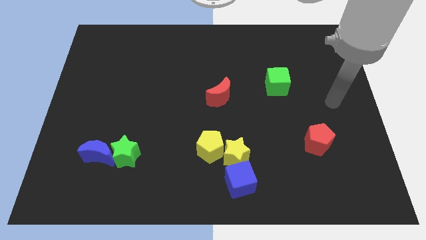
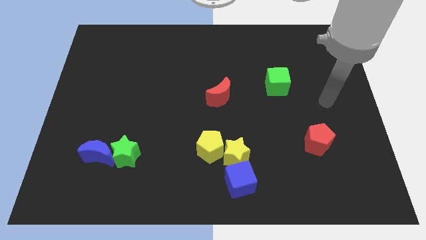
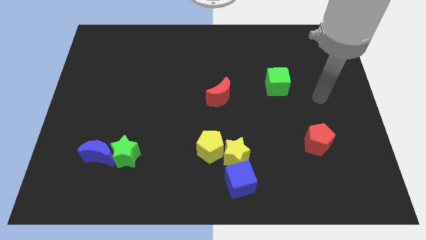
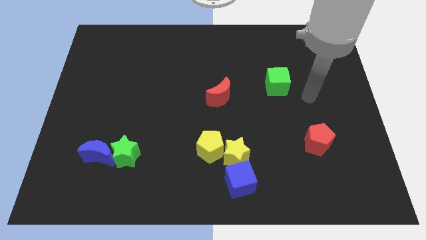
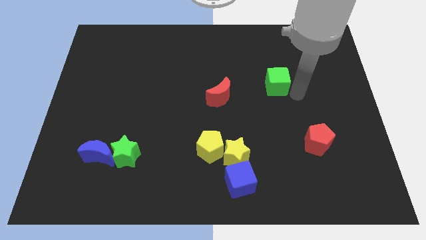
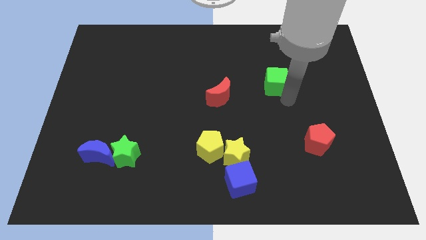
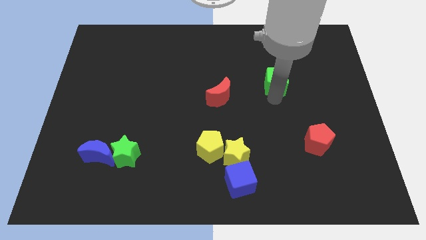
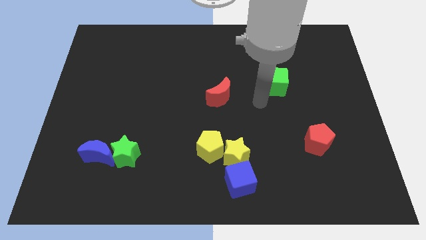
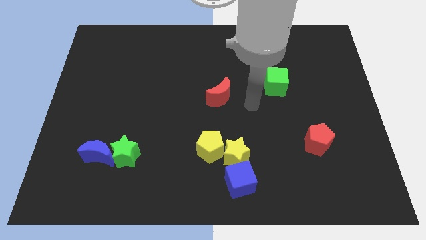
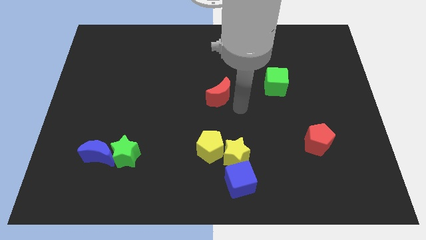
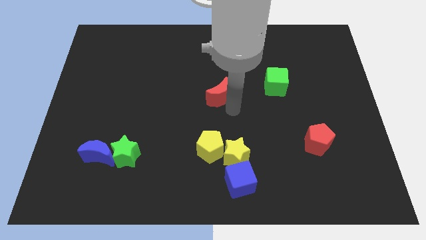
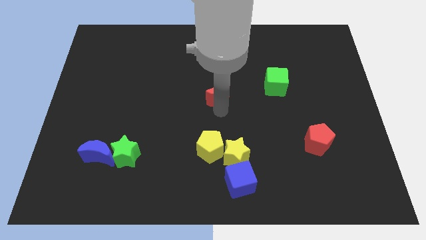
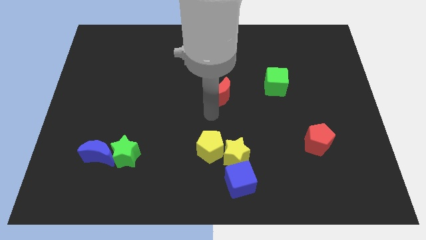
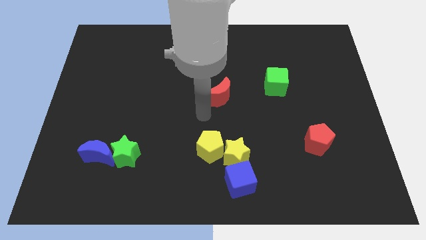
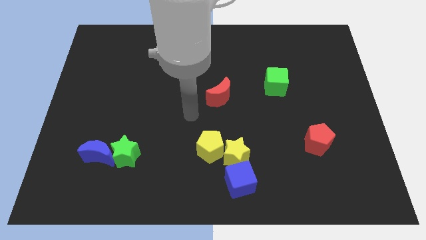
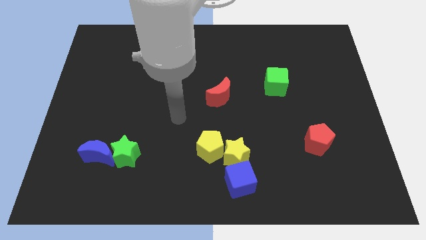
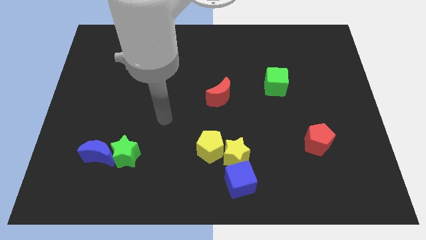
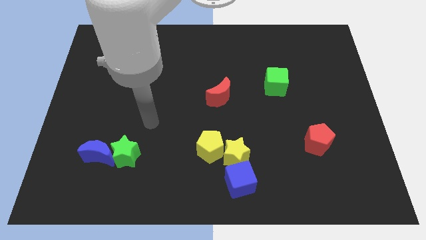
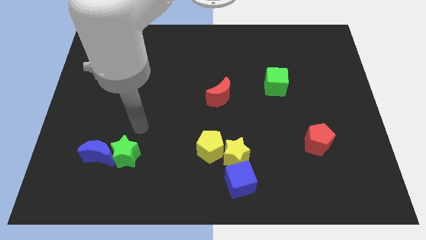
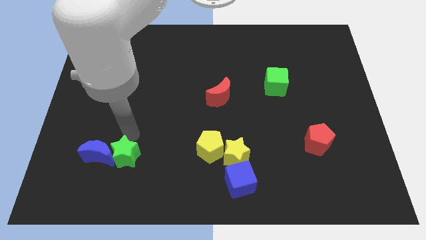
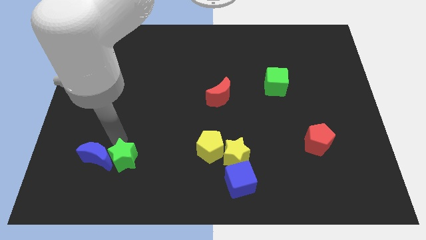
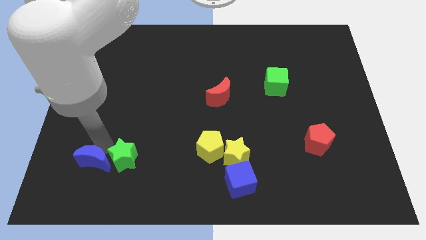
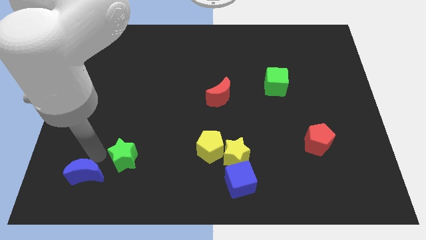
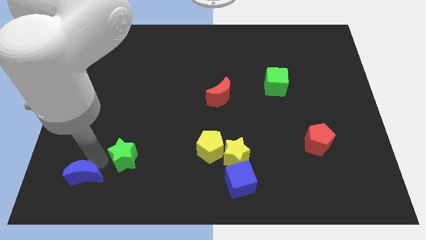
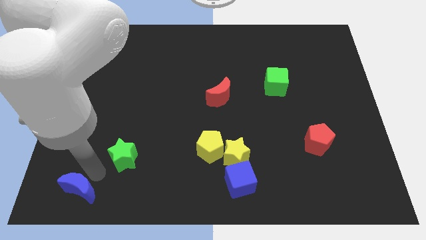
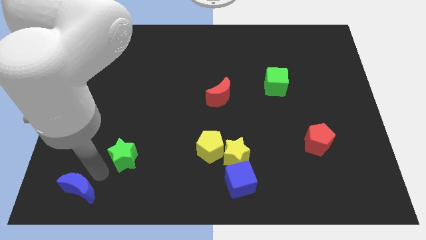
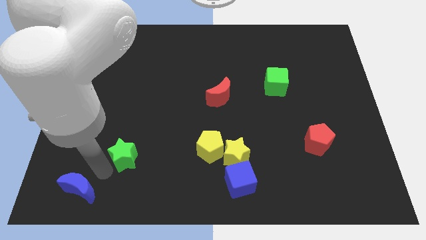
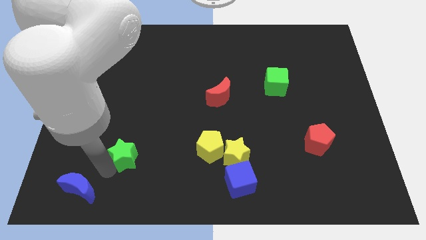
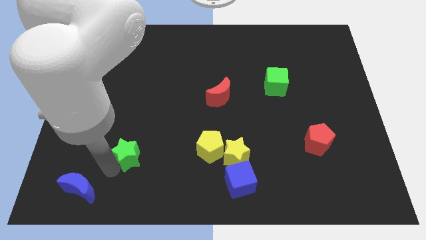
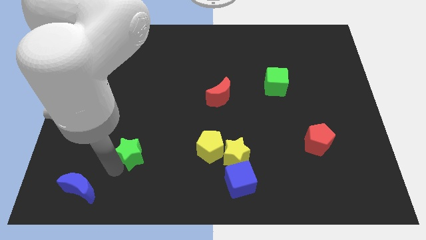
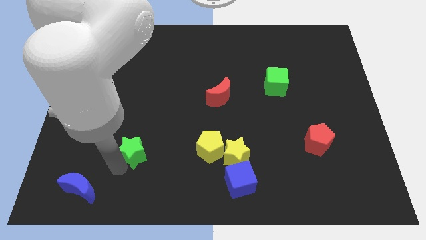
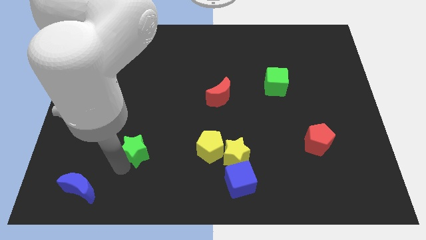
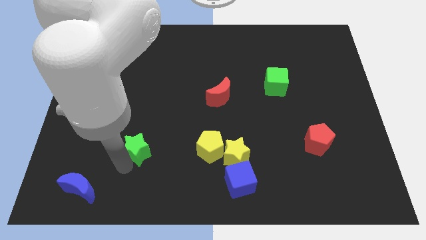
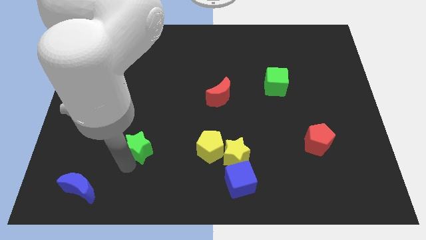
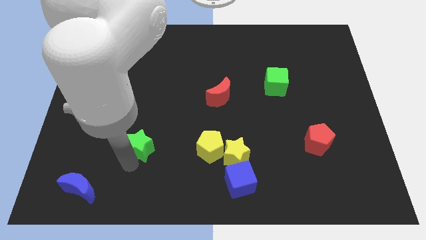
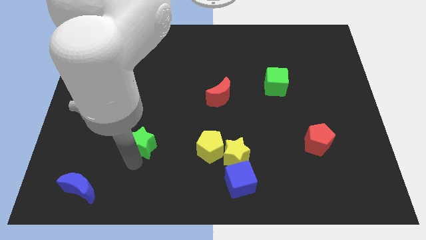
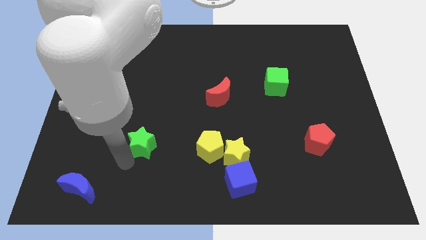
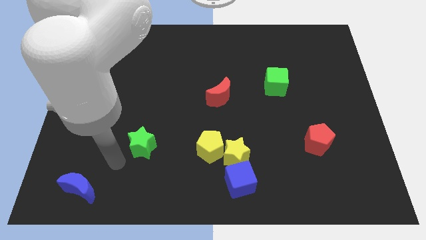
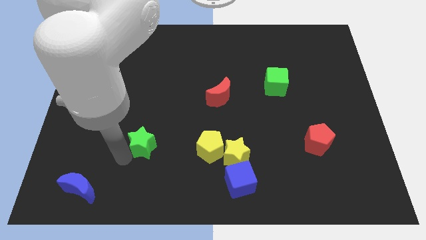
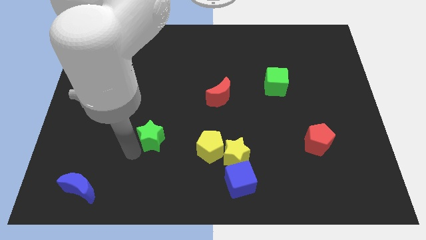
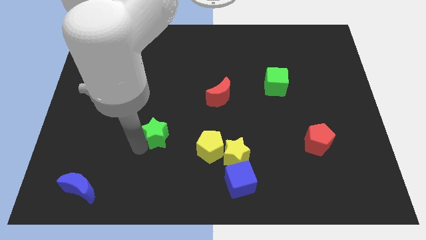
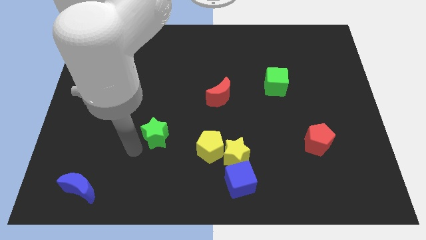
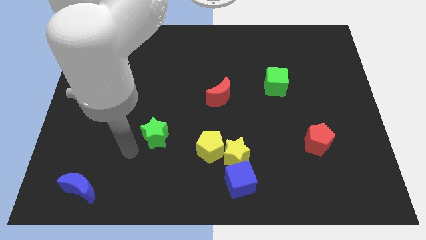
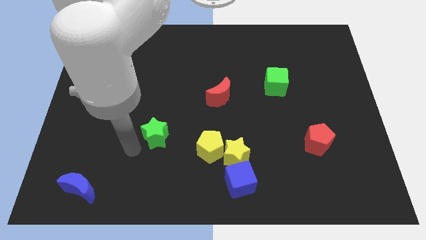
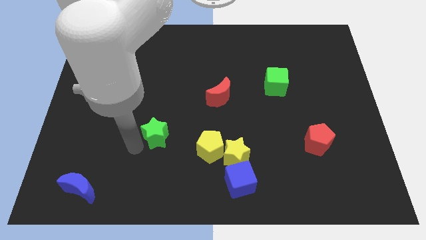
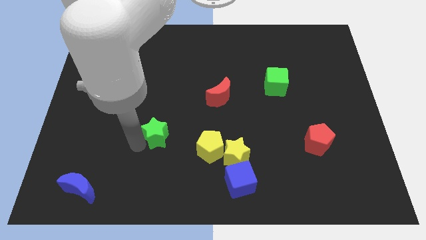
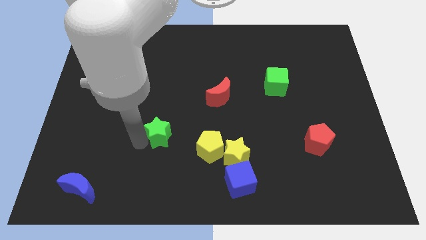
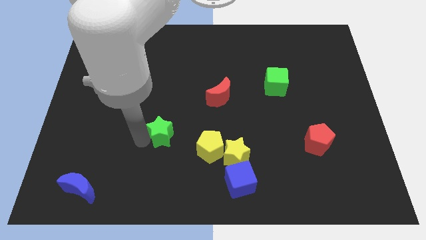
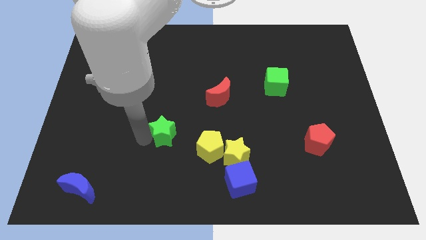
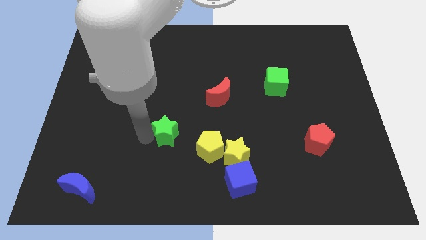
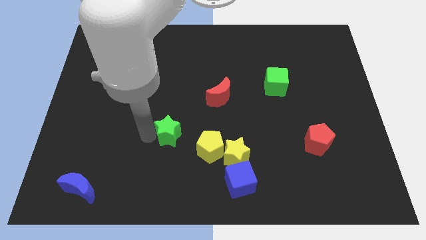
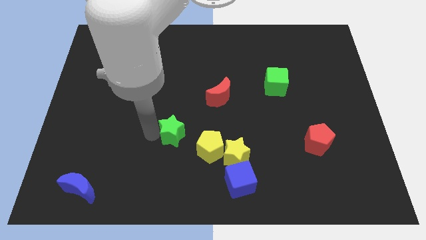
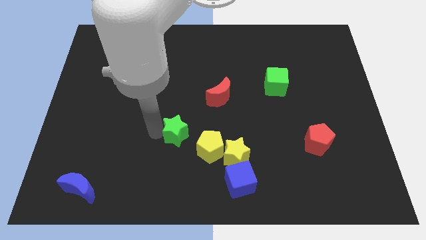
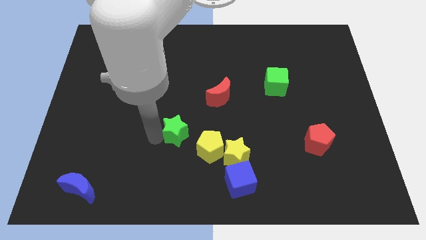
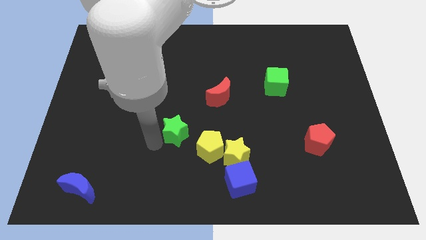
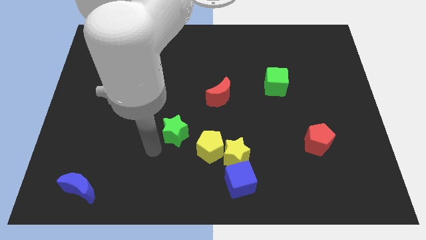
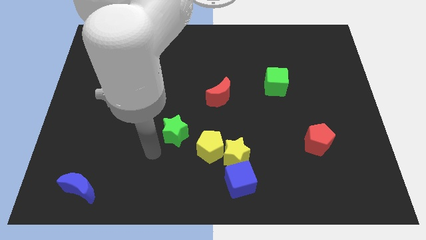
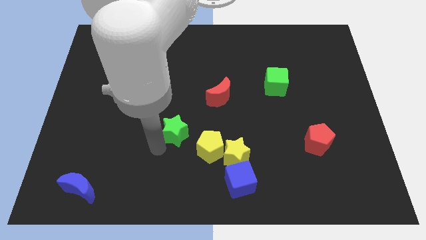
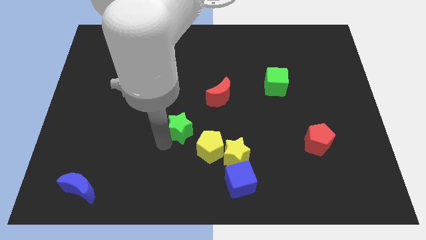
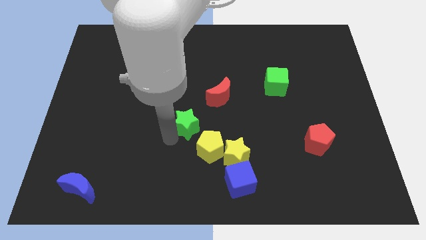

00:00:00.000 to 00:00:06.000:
push the green star to the bottom left of the red moon
